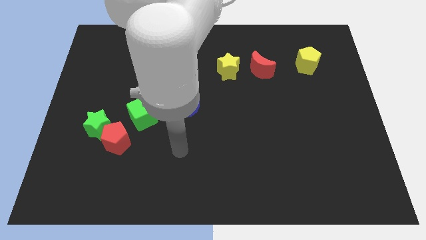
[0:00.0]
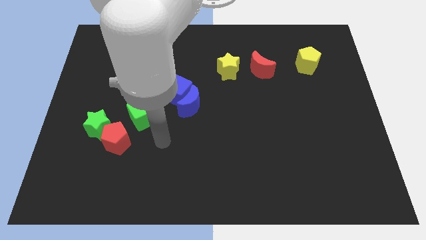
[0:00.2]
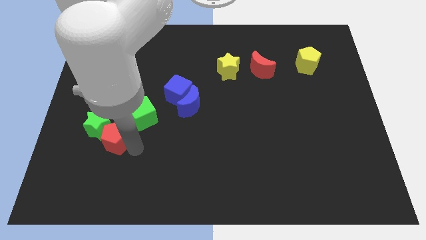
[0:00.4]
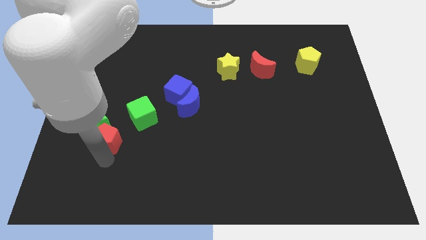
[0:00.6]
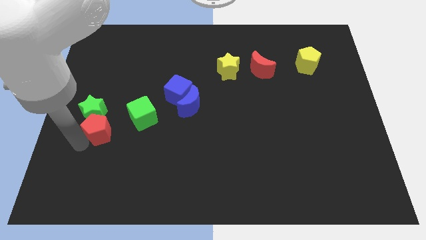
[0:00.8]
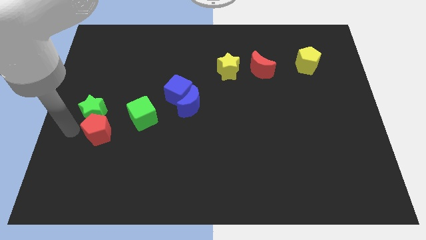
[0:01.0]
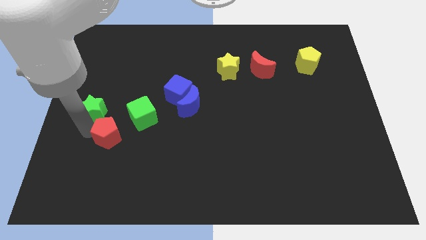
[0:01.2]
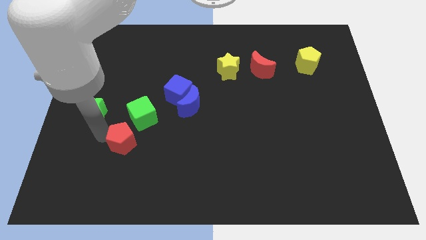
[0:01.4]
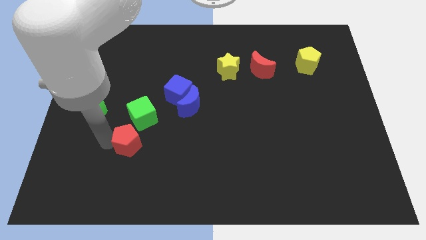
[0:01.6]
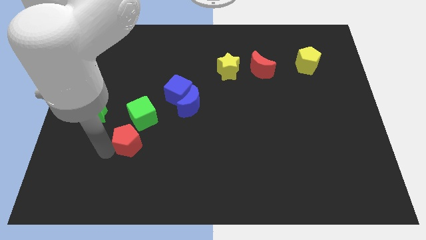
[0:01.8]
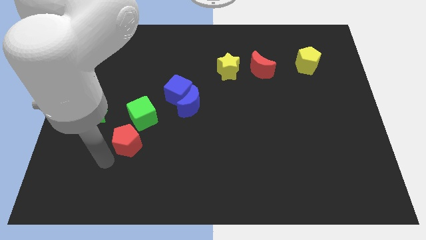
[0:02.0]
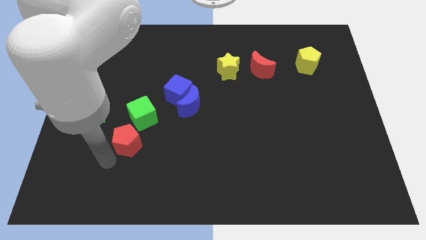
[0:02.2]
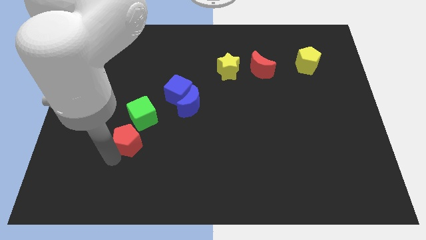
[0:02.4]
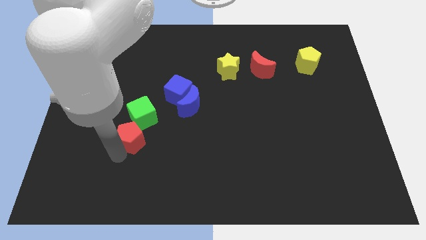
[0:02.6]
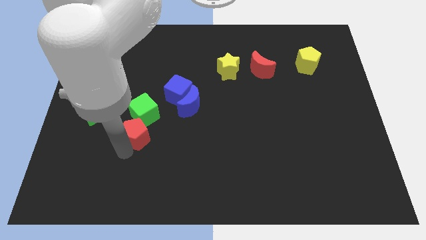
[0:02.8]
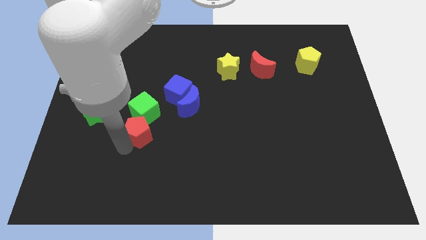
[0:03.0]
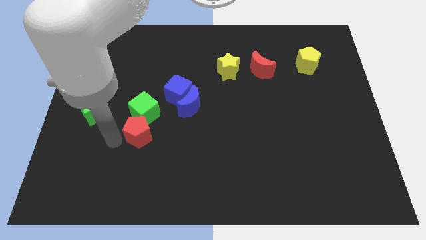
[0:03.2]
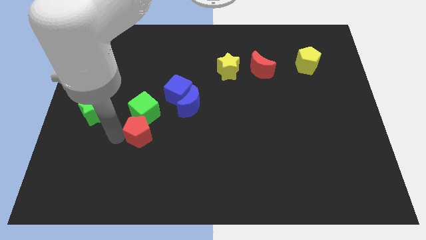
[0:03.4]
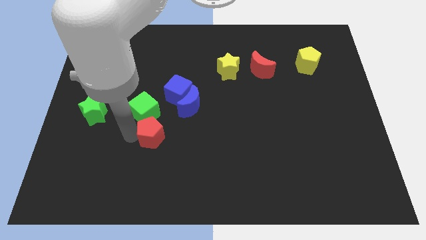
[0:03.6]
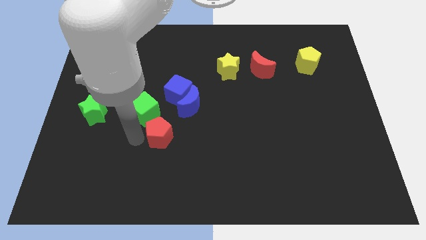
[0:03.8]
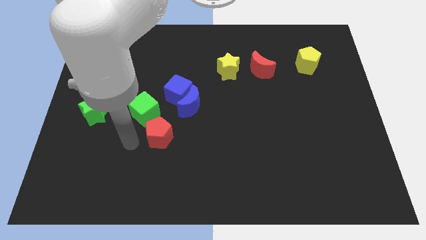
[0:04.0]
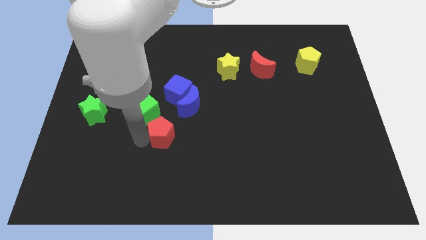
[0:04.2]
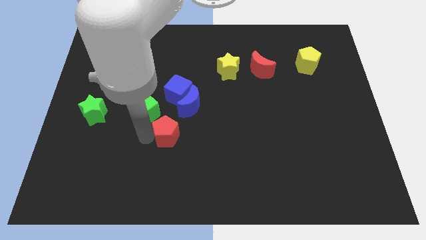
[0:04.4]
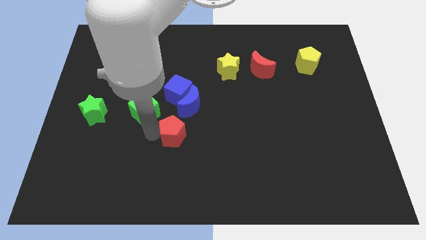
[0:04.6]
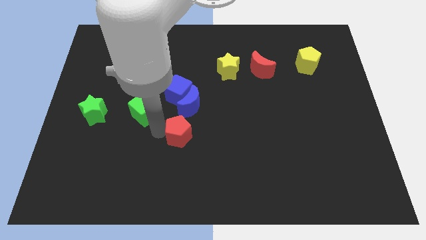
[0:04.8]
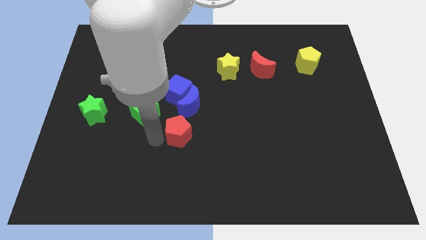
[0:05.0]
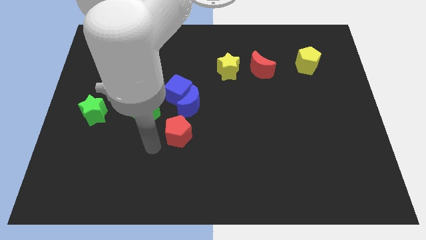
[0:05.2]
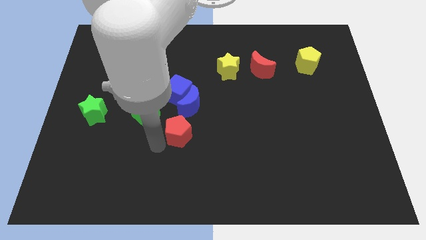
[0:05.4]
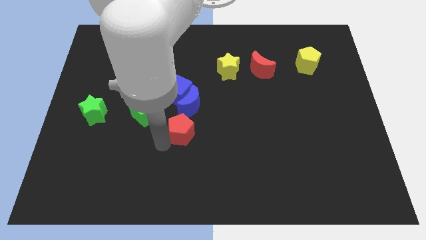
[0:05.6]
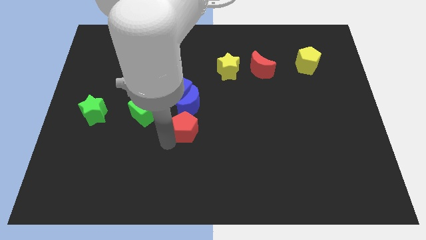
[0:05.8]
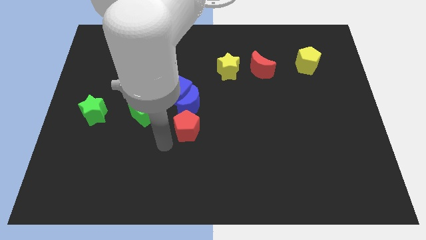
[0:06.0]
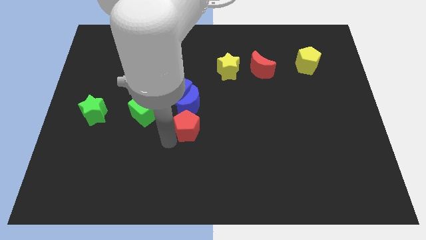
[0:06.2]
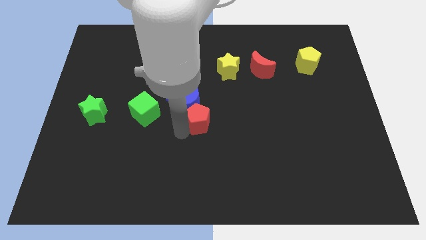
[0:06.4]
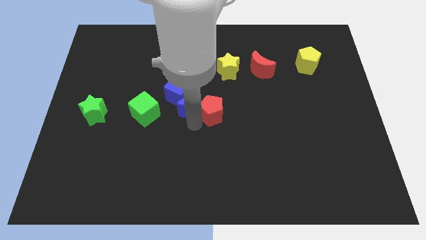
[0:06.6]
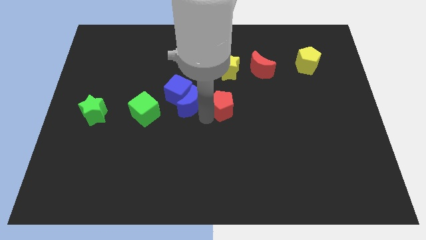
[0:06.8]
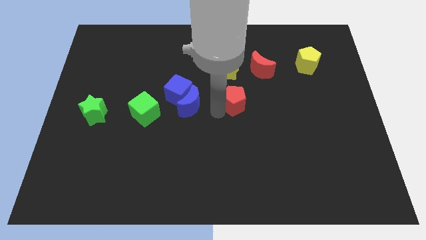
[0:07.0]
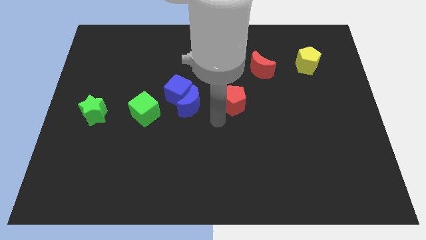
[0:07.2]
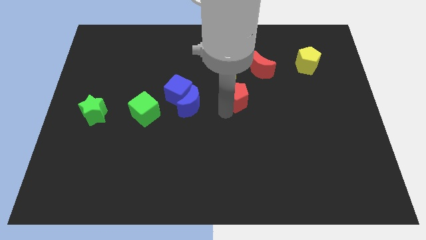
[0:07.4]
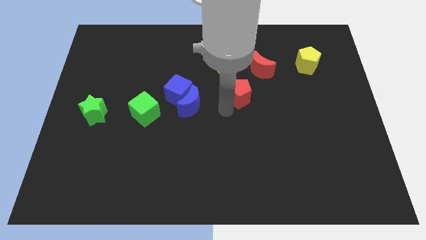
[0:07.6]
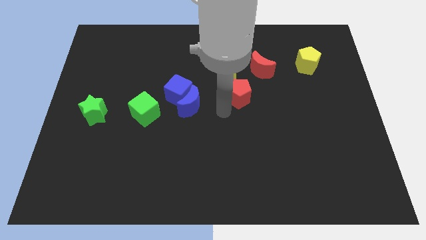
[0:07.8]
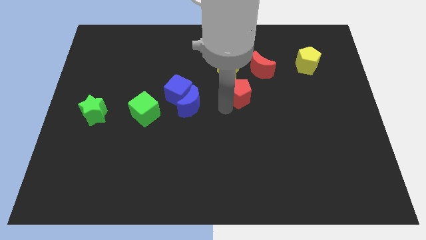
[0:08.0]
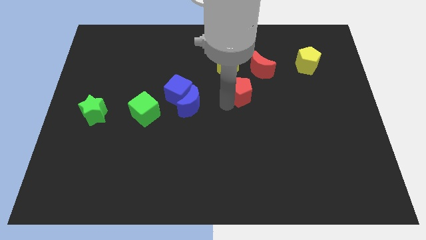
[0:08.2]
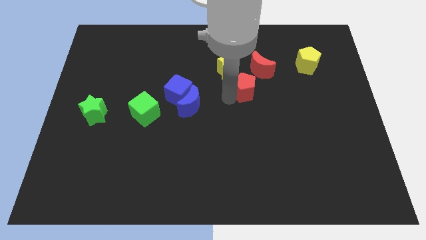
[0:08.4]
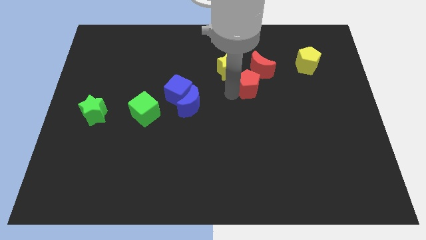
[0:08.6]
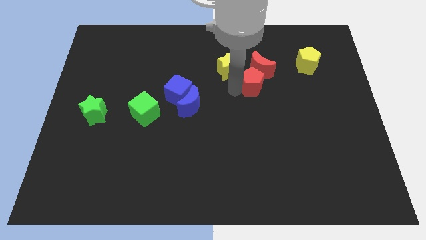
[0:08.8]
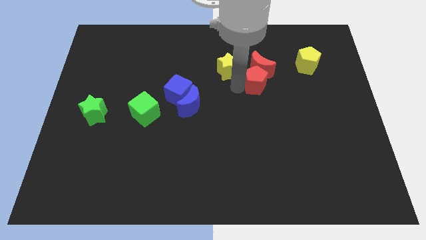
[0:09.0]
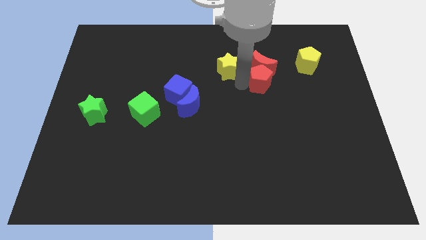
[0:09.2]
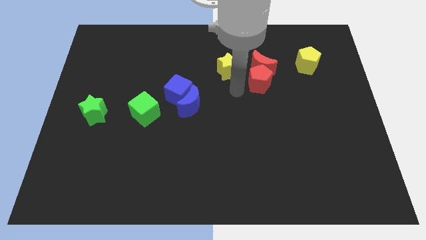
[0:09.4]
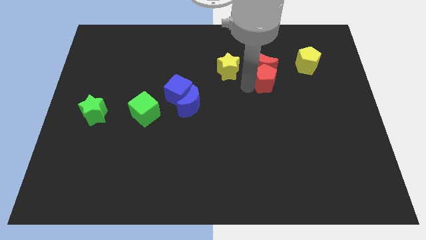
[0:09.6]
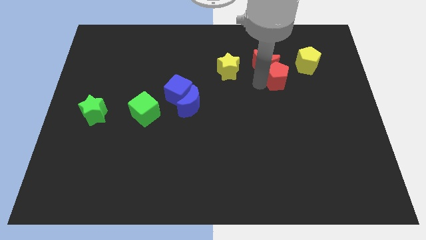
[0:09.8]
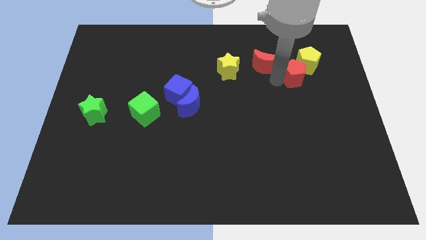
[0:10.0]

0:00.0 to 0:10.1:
put the red pentagon next to the yellow pentagon

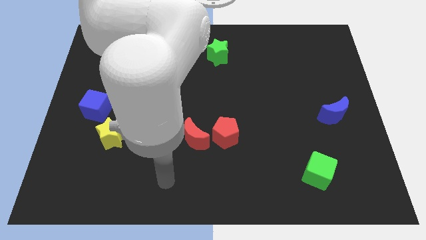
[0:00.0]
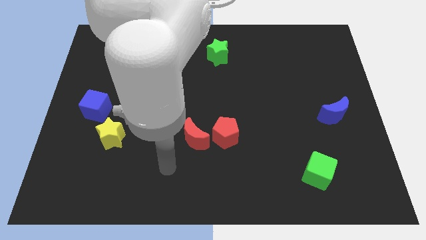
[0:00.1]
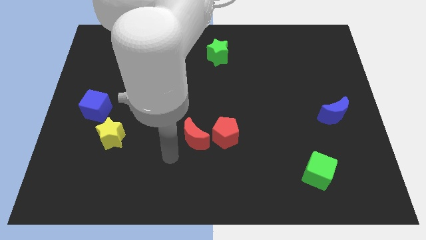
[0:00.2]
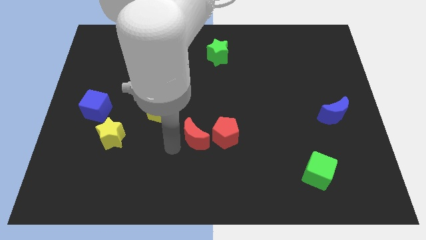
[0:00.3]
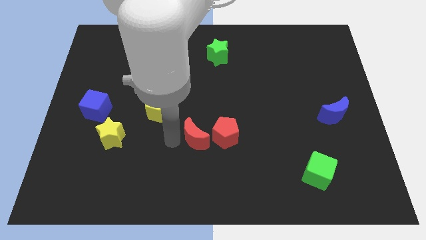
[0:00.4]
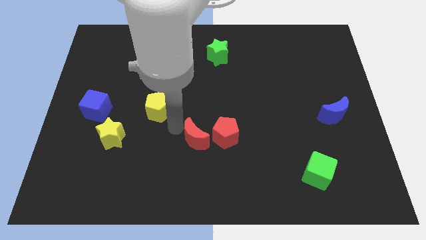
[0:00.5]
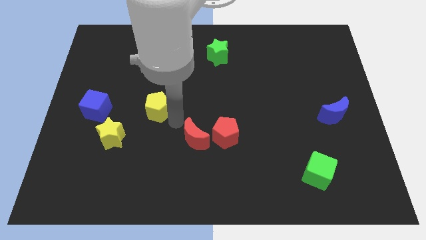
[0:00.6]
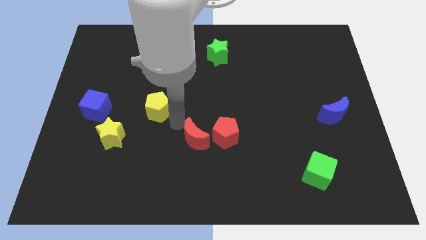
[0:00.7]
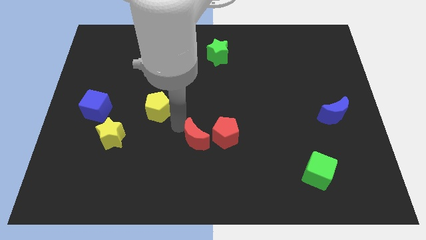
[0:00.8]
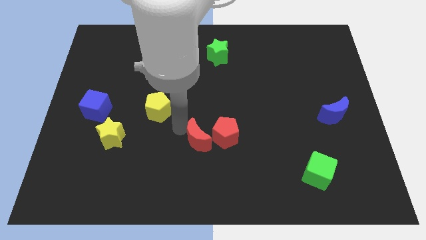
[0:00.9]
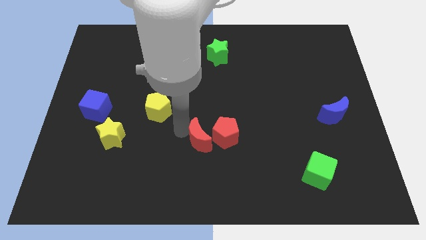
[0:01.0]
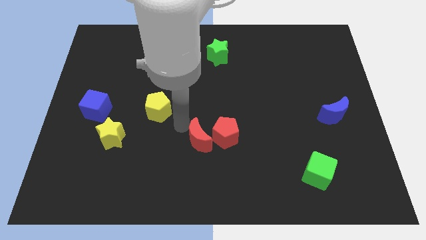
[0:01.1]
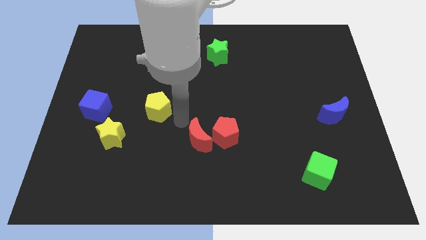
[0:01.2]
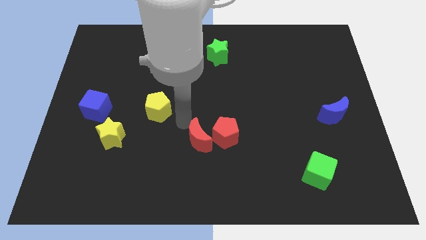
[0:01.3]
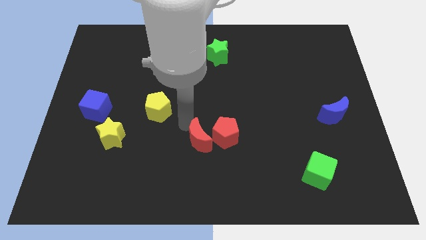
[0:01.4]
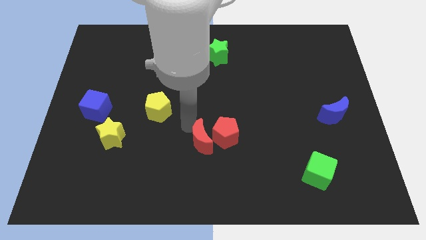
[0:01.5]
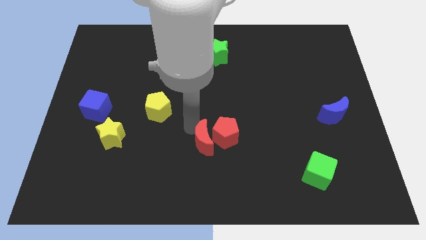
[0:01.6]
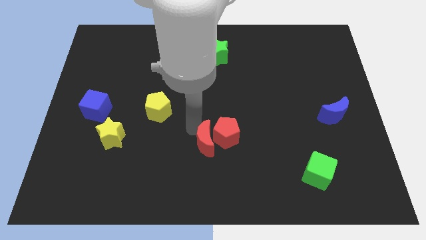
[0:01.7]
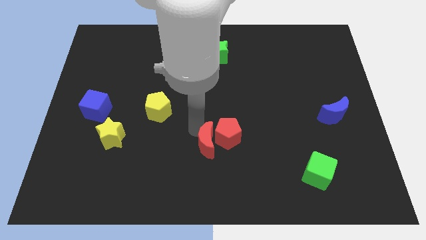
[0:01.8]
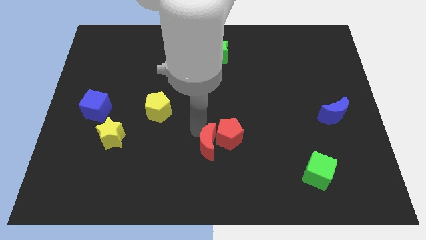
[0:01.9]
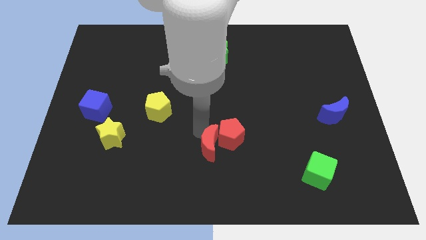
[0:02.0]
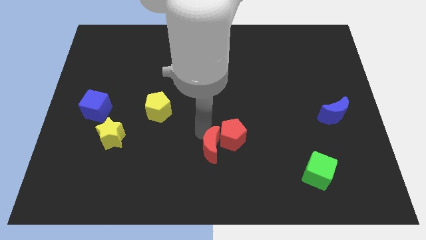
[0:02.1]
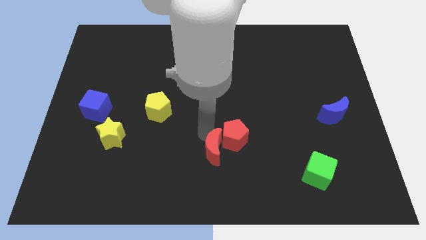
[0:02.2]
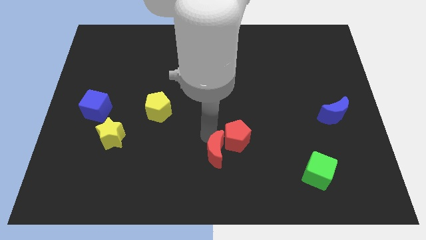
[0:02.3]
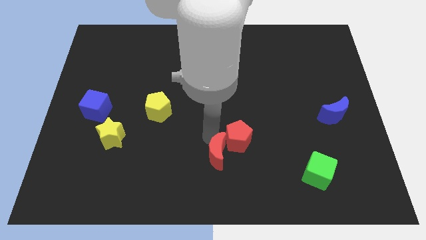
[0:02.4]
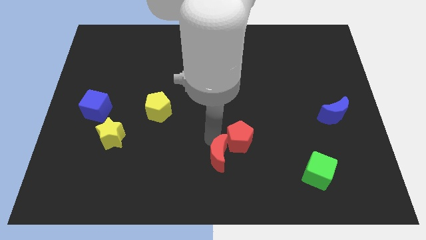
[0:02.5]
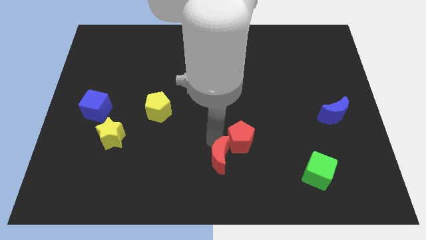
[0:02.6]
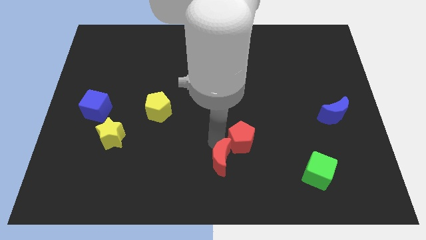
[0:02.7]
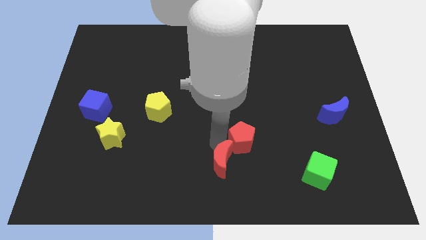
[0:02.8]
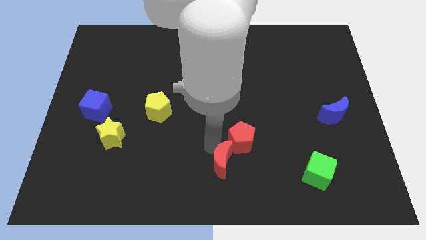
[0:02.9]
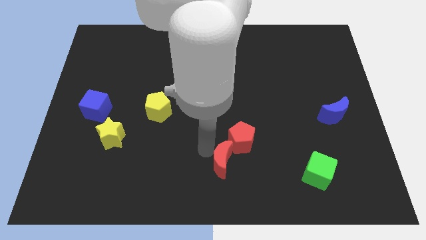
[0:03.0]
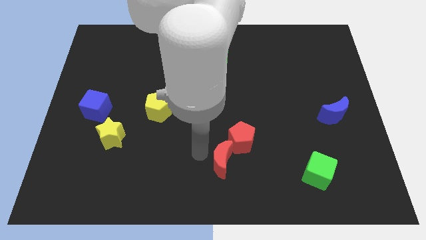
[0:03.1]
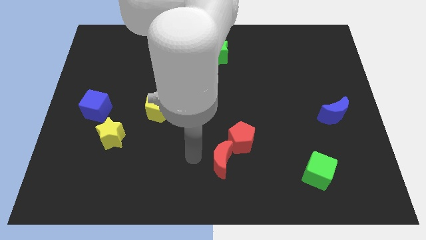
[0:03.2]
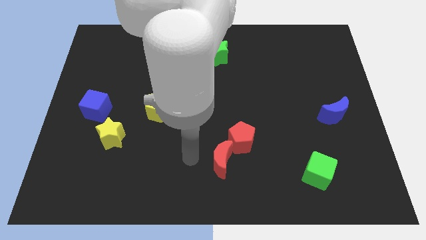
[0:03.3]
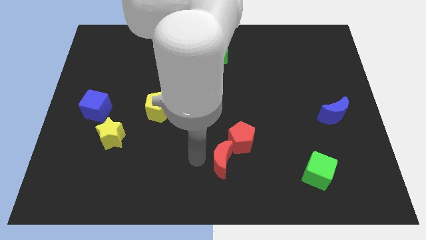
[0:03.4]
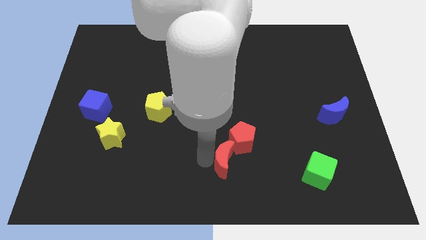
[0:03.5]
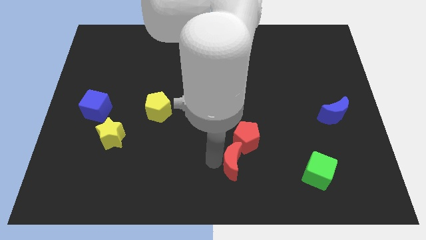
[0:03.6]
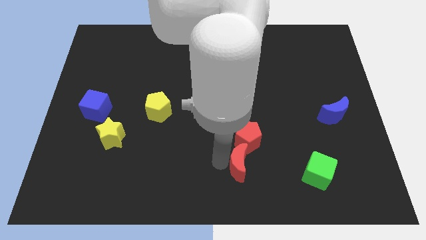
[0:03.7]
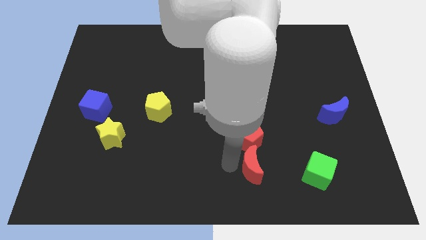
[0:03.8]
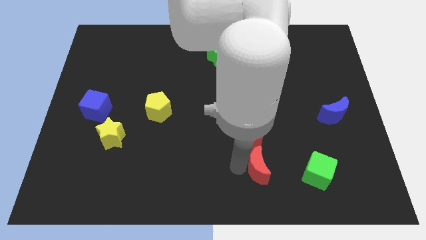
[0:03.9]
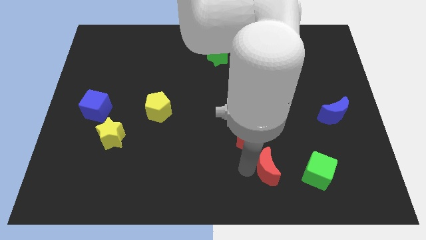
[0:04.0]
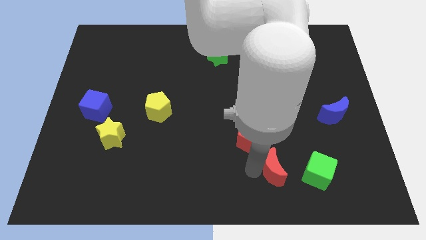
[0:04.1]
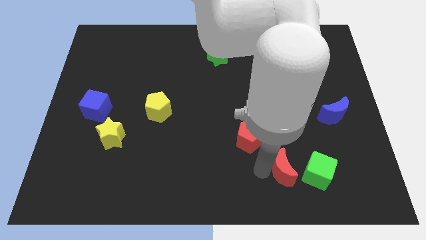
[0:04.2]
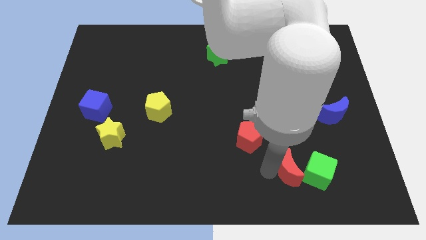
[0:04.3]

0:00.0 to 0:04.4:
put the red moon next to the green cube
